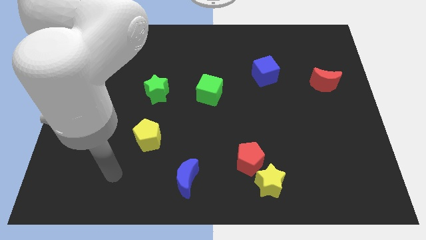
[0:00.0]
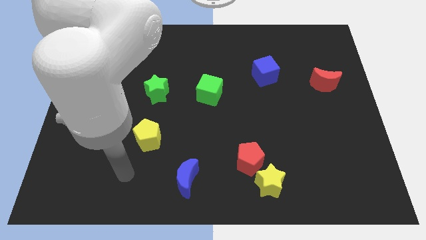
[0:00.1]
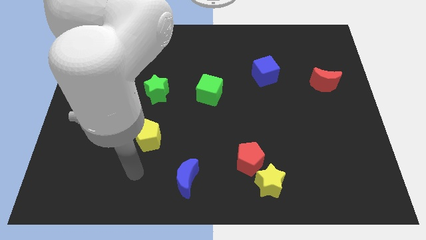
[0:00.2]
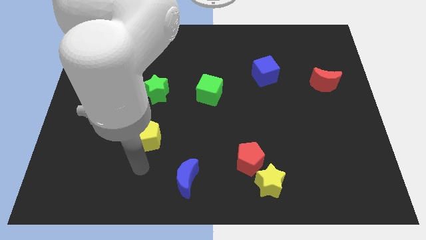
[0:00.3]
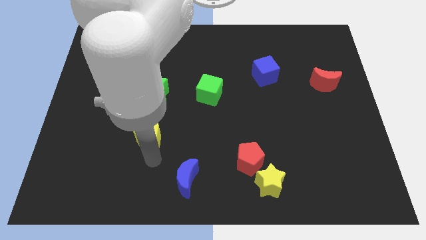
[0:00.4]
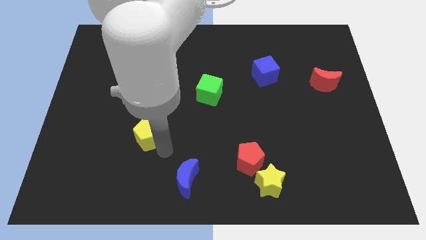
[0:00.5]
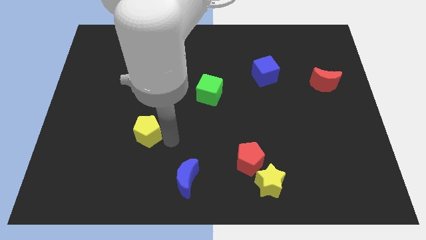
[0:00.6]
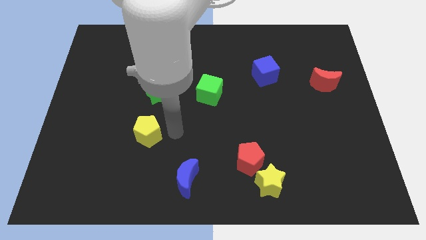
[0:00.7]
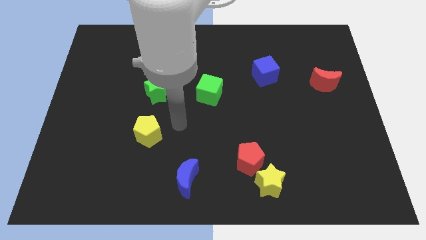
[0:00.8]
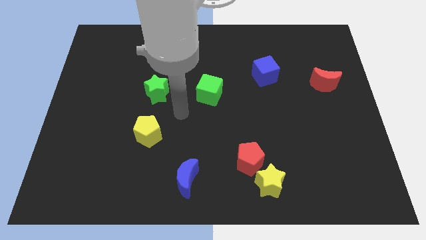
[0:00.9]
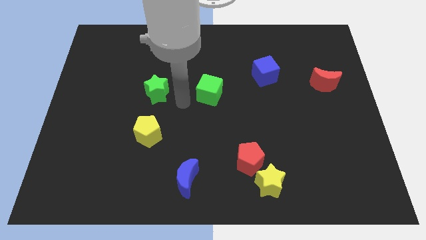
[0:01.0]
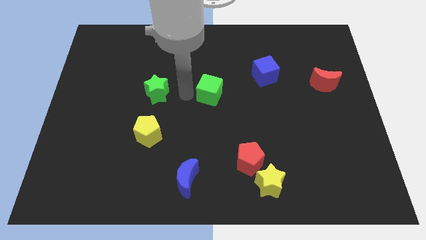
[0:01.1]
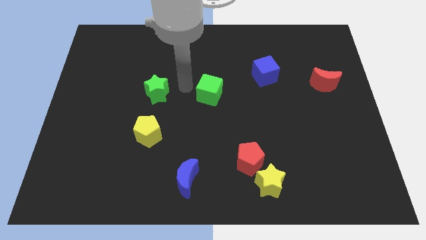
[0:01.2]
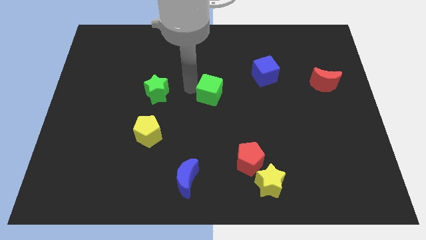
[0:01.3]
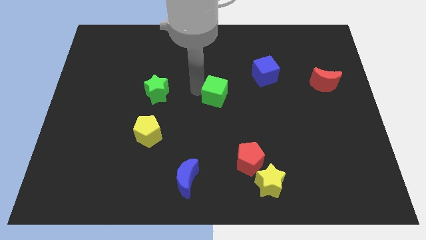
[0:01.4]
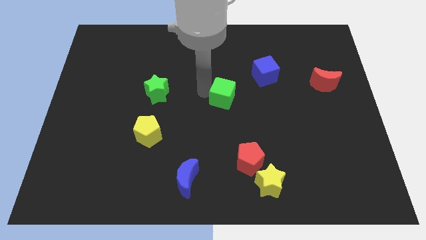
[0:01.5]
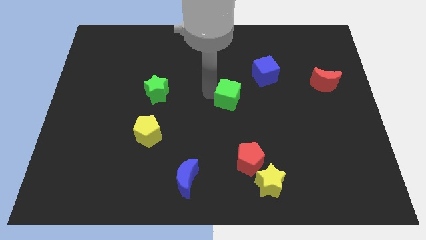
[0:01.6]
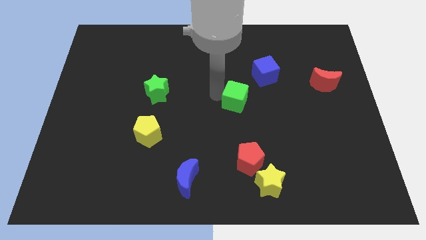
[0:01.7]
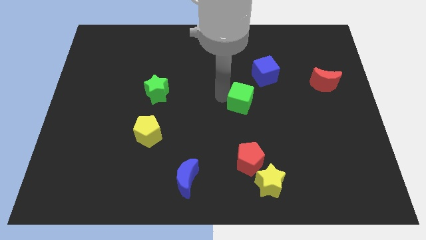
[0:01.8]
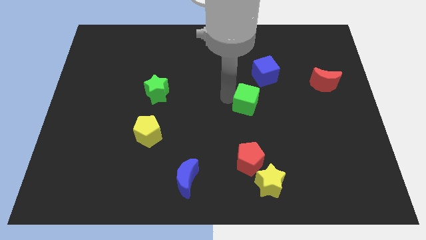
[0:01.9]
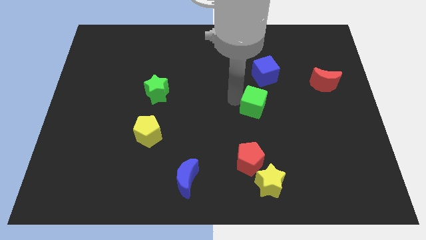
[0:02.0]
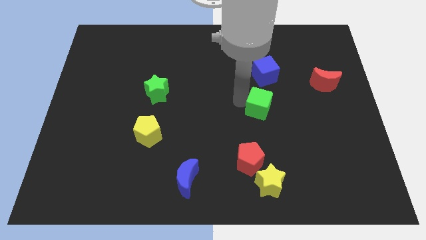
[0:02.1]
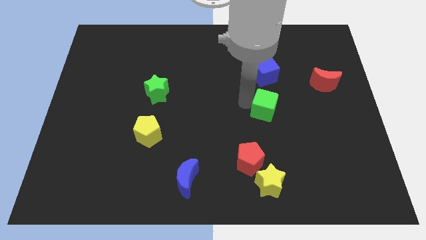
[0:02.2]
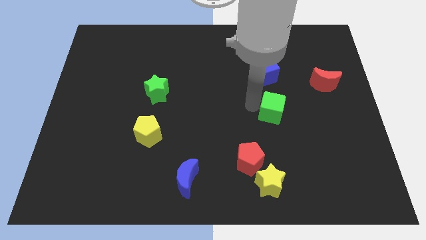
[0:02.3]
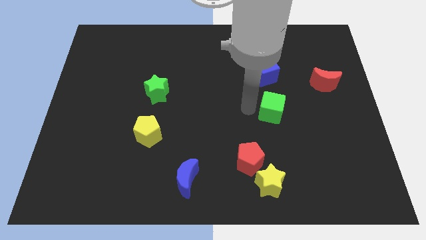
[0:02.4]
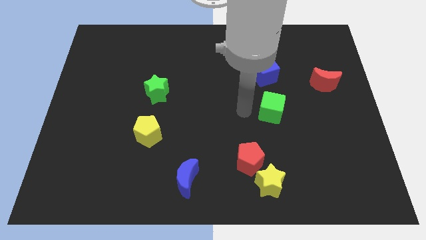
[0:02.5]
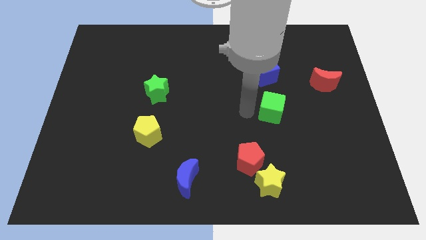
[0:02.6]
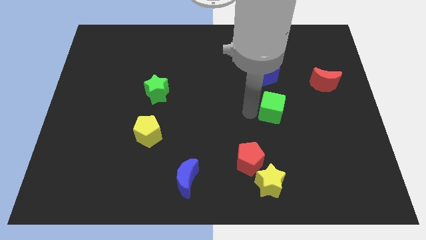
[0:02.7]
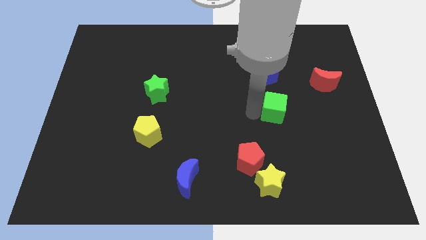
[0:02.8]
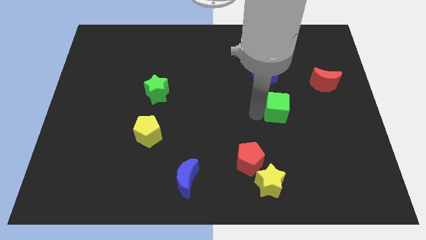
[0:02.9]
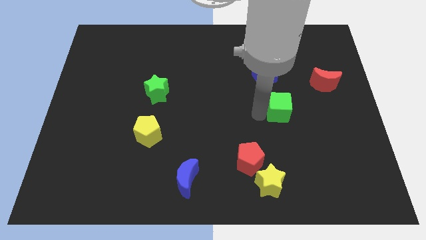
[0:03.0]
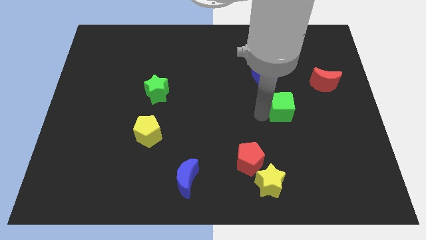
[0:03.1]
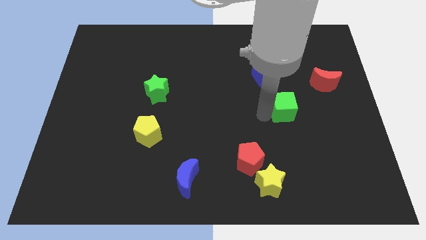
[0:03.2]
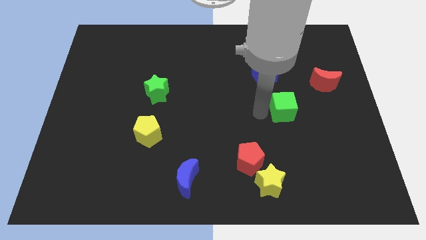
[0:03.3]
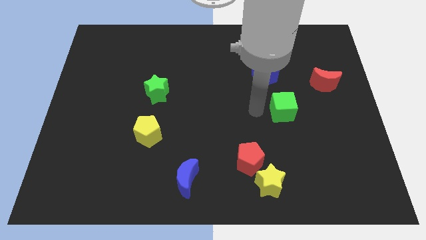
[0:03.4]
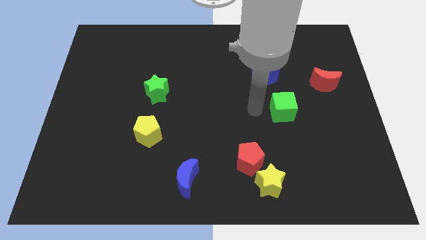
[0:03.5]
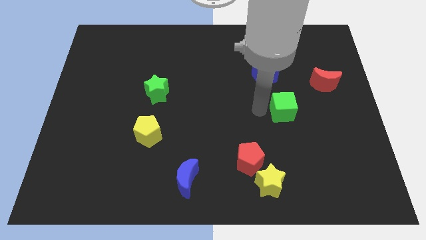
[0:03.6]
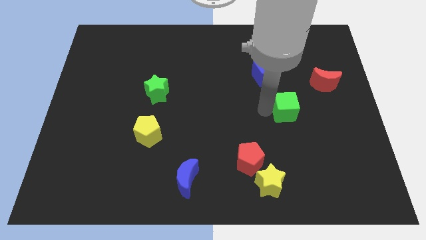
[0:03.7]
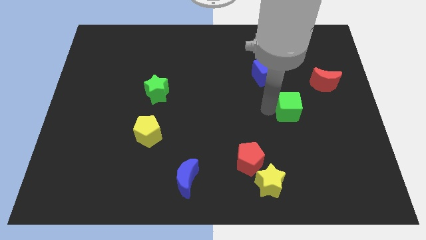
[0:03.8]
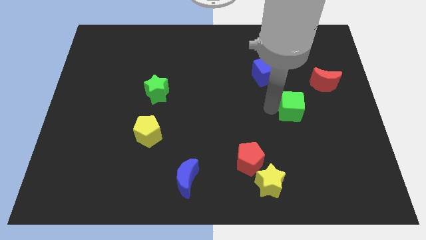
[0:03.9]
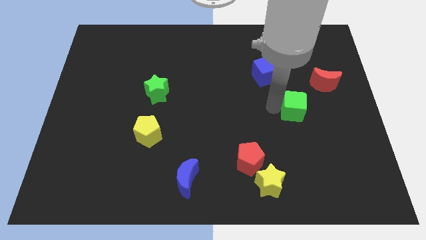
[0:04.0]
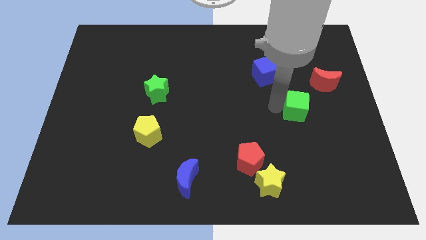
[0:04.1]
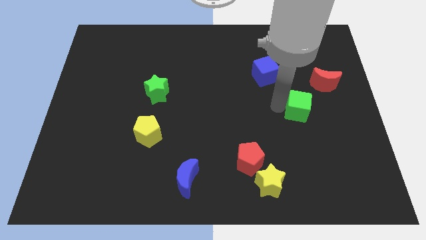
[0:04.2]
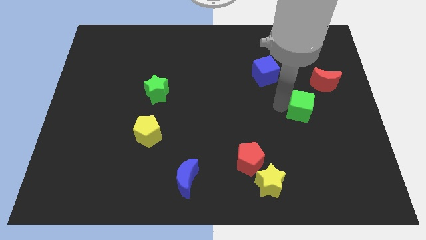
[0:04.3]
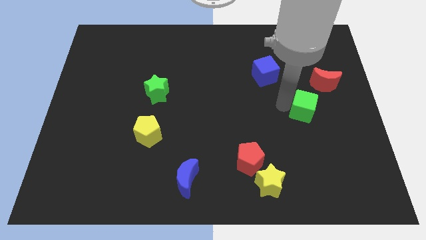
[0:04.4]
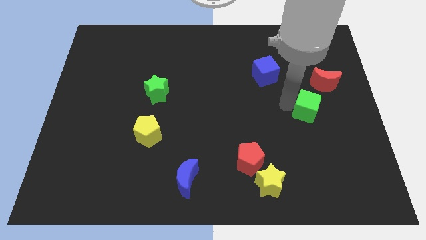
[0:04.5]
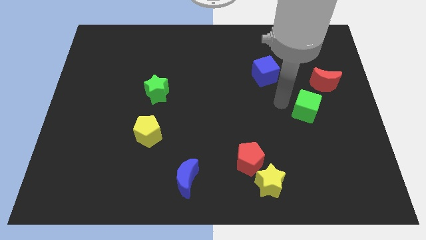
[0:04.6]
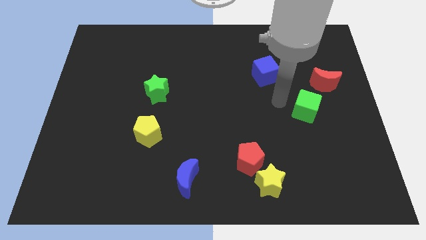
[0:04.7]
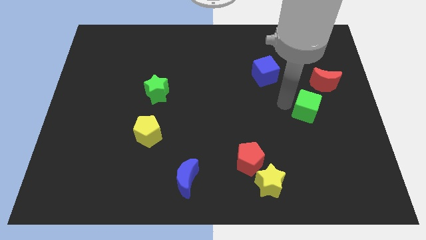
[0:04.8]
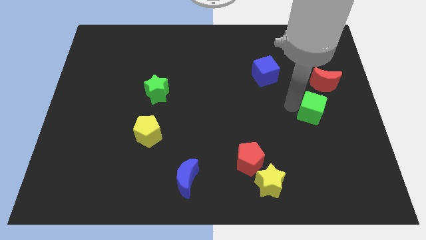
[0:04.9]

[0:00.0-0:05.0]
put the green cube to the bottom side of the red moon

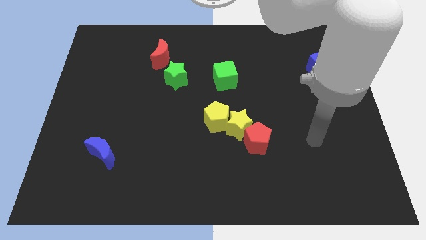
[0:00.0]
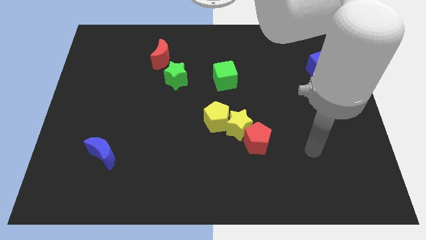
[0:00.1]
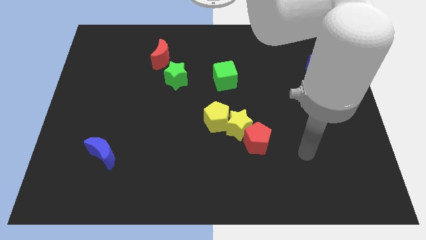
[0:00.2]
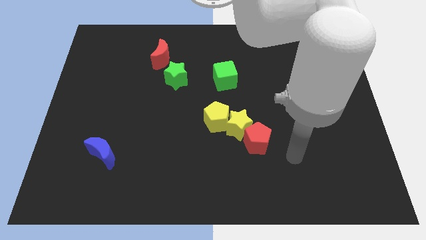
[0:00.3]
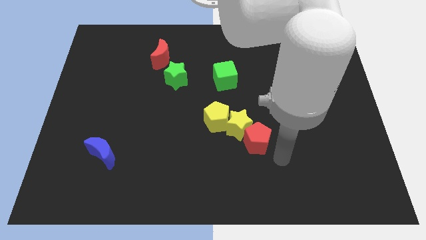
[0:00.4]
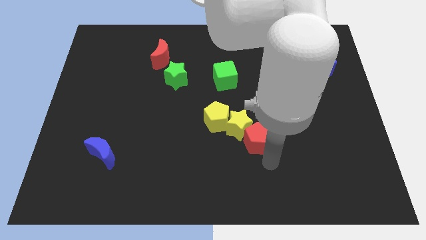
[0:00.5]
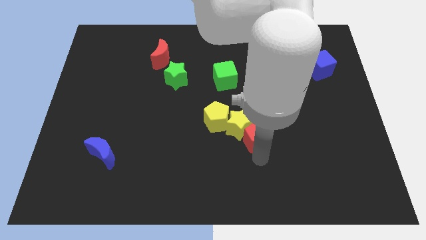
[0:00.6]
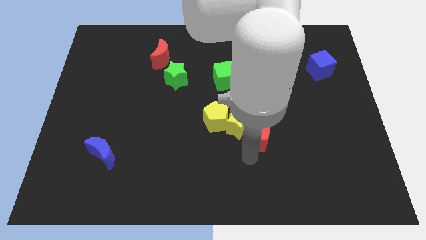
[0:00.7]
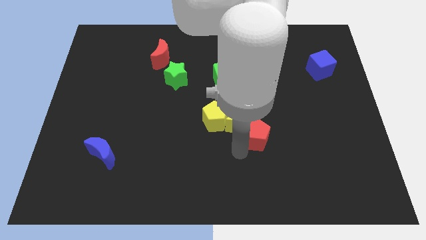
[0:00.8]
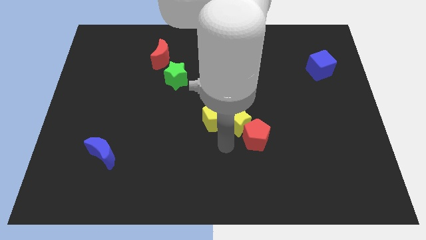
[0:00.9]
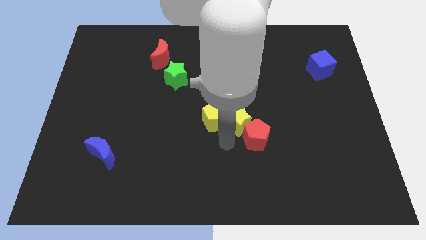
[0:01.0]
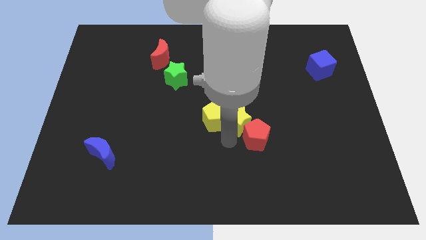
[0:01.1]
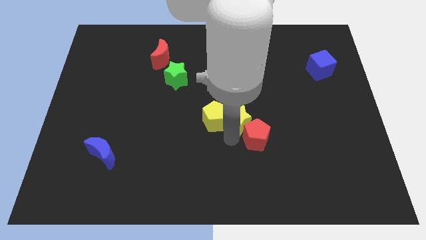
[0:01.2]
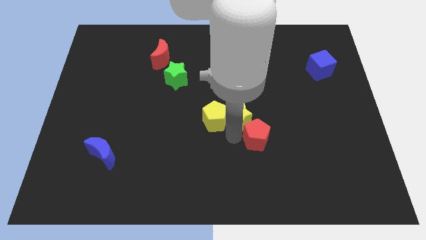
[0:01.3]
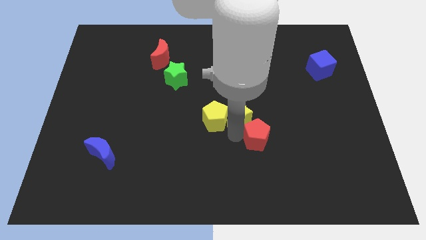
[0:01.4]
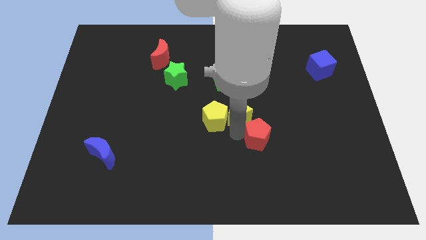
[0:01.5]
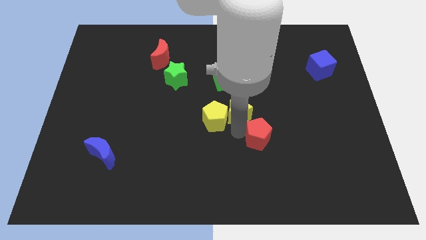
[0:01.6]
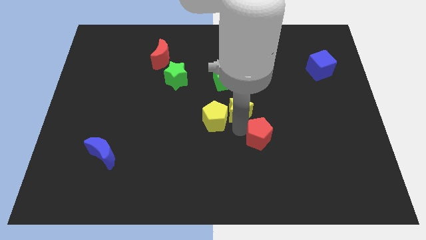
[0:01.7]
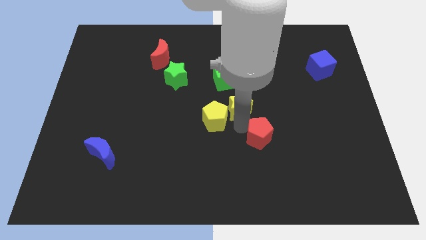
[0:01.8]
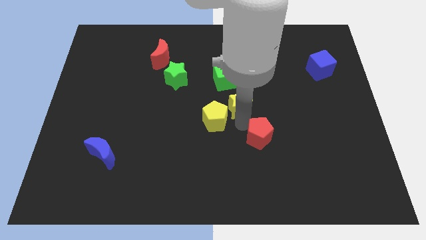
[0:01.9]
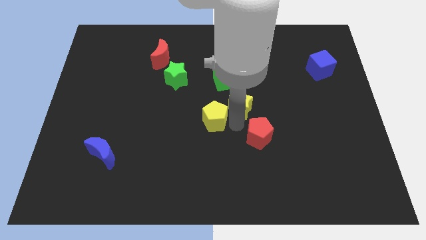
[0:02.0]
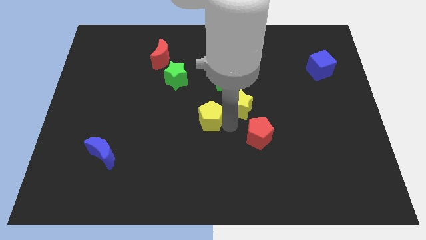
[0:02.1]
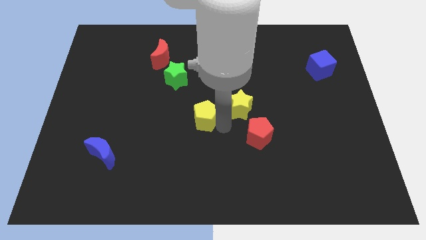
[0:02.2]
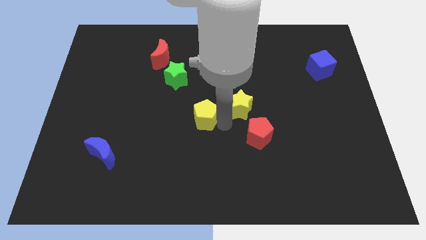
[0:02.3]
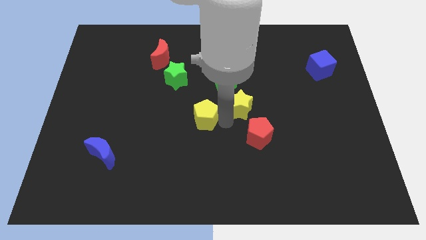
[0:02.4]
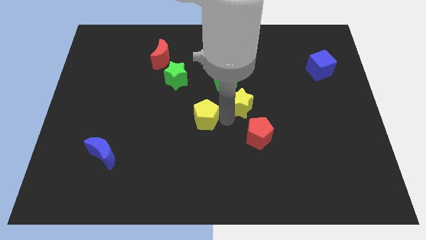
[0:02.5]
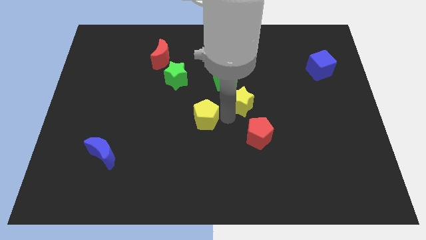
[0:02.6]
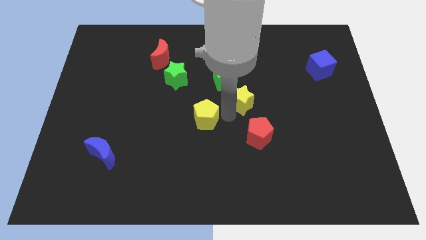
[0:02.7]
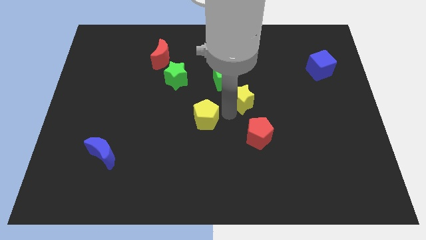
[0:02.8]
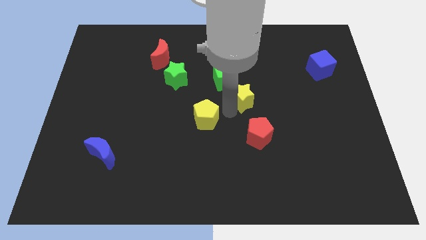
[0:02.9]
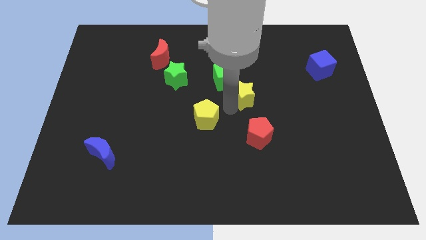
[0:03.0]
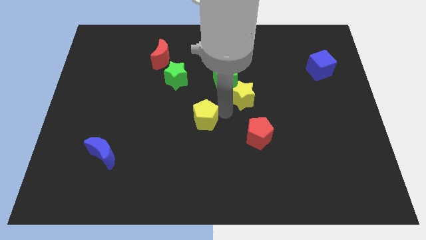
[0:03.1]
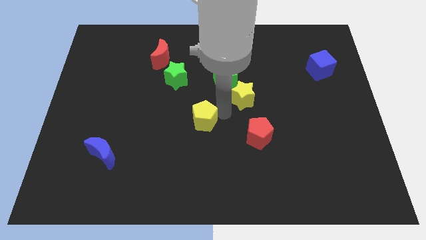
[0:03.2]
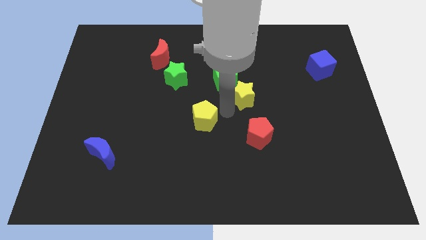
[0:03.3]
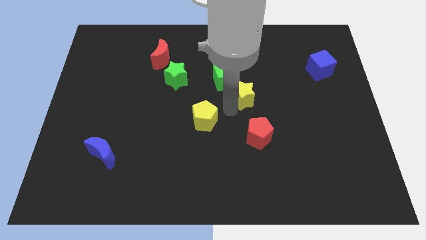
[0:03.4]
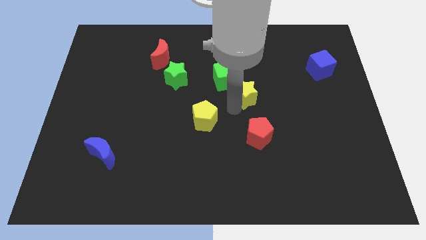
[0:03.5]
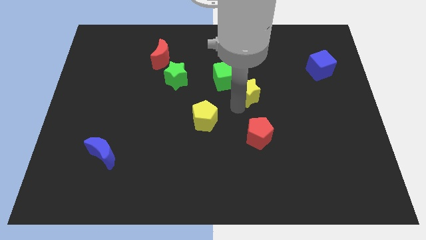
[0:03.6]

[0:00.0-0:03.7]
move the yellow star to the right side of the green cube
